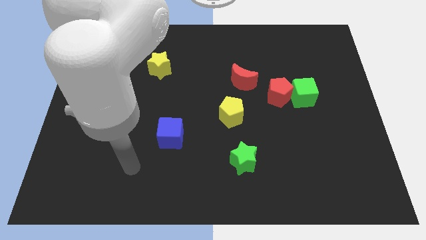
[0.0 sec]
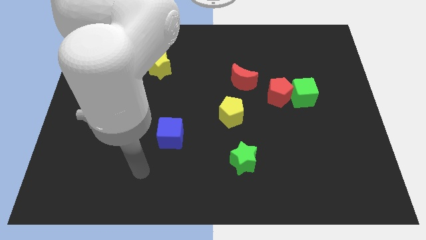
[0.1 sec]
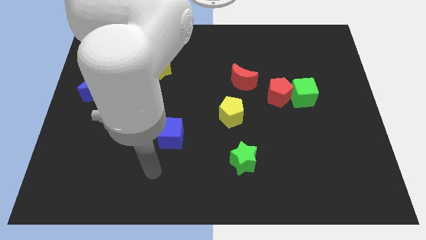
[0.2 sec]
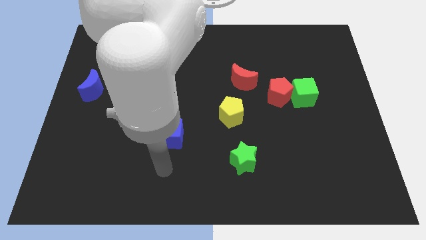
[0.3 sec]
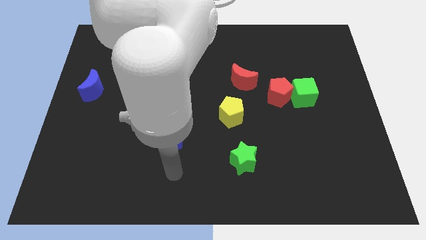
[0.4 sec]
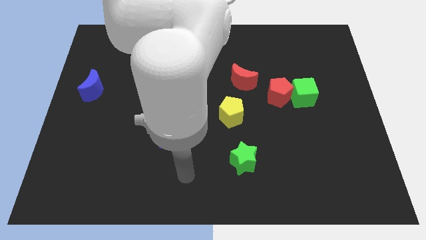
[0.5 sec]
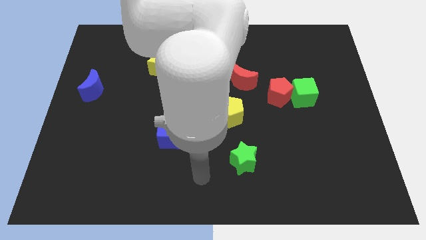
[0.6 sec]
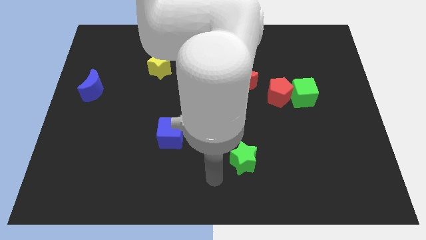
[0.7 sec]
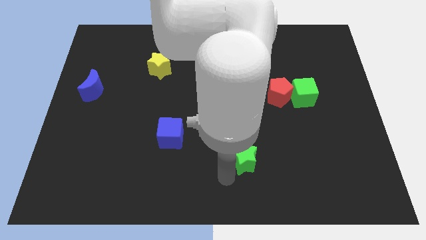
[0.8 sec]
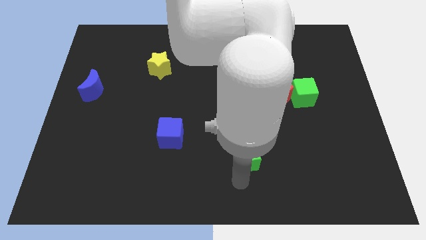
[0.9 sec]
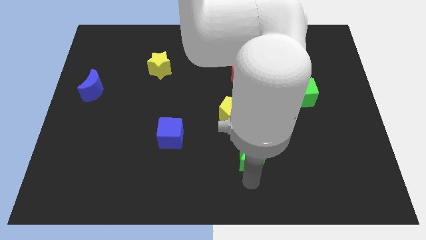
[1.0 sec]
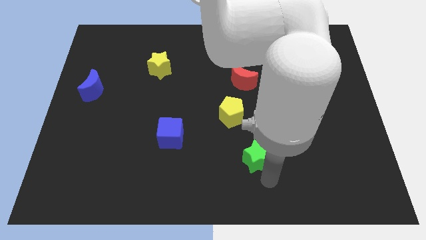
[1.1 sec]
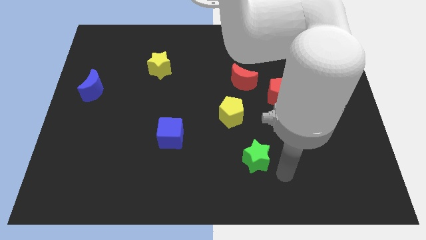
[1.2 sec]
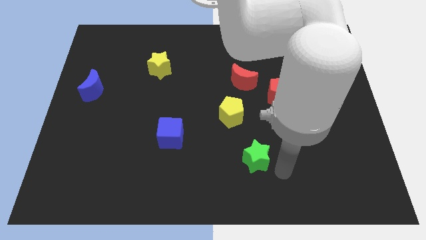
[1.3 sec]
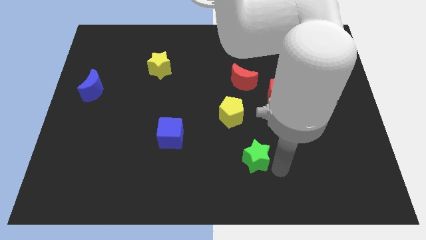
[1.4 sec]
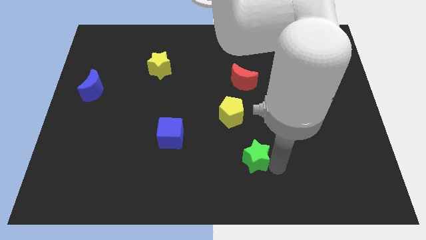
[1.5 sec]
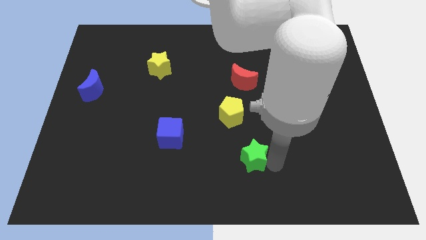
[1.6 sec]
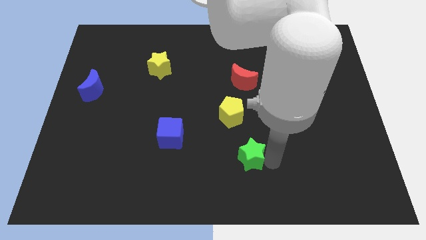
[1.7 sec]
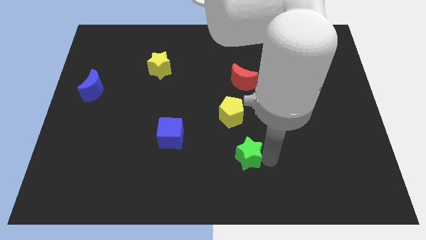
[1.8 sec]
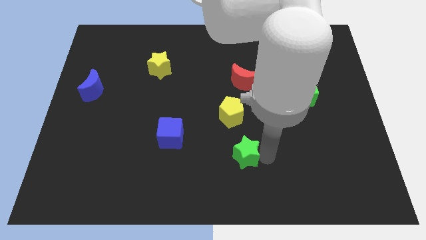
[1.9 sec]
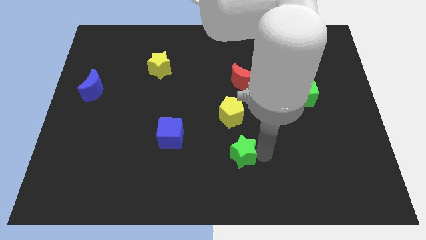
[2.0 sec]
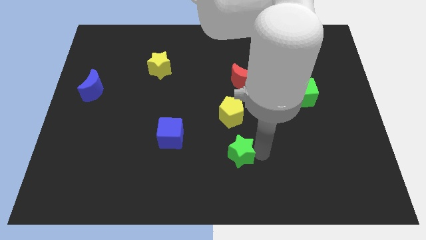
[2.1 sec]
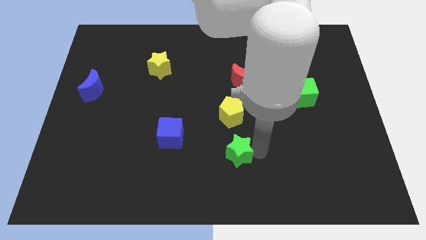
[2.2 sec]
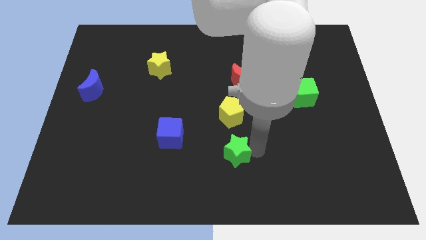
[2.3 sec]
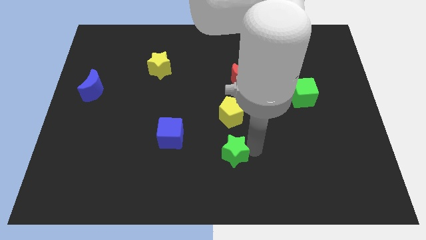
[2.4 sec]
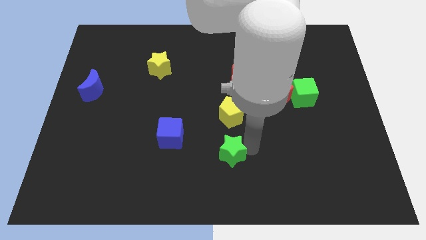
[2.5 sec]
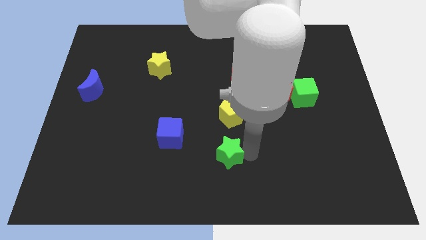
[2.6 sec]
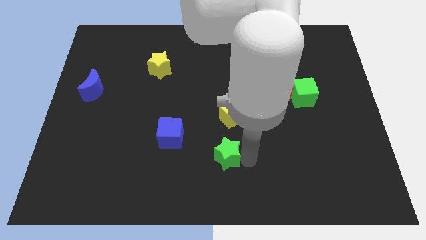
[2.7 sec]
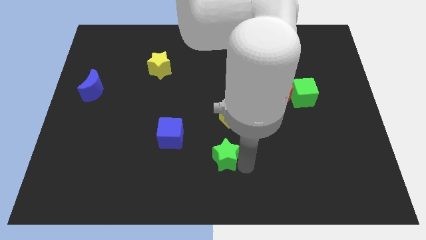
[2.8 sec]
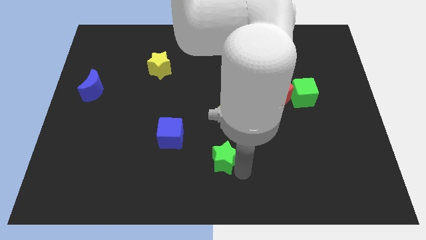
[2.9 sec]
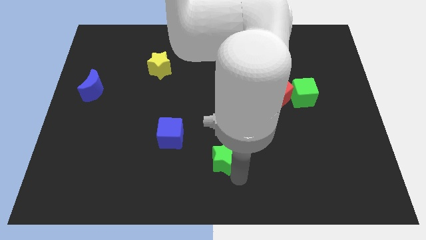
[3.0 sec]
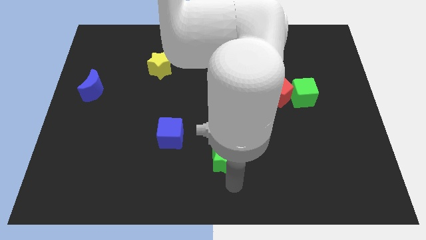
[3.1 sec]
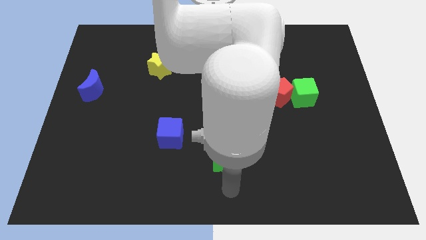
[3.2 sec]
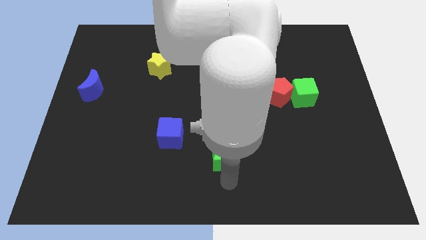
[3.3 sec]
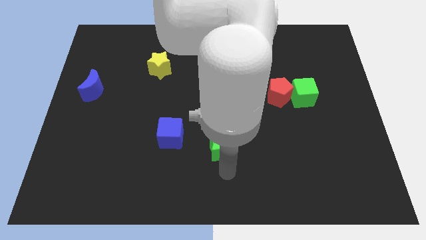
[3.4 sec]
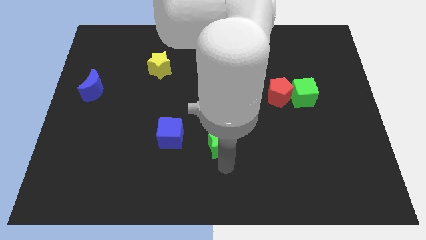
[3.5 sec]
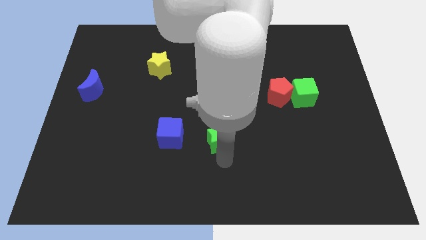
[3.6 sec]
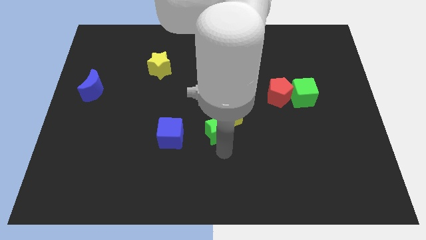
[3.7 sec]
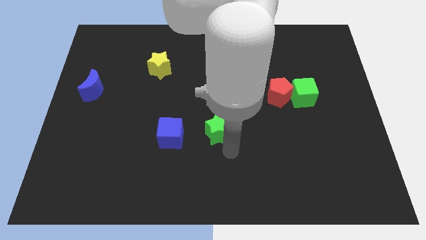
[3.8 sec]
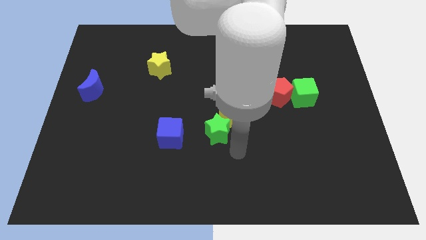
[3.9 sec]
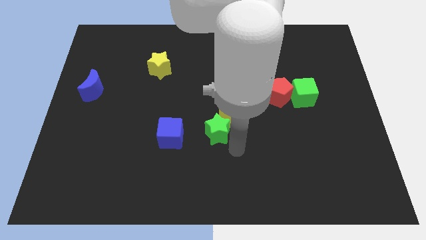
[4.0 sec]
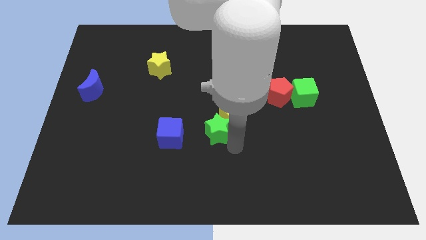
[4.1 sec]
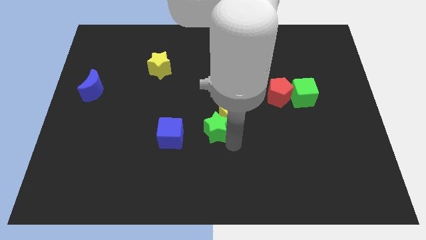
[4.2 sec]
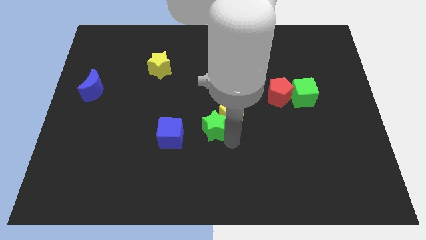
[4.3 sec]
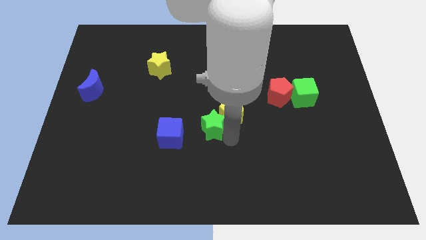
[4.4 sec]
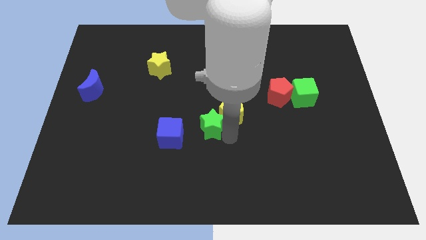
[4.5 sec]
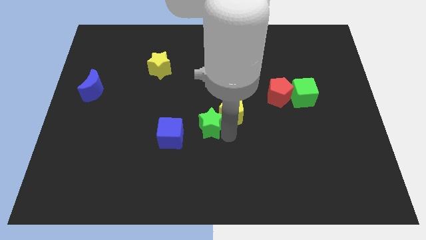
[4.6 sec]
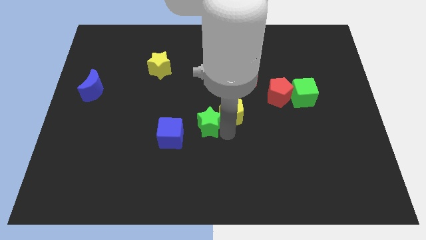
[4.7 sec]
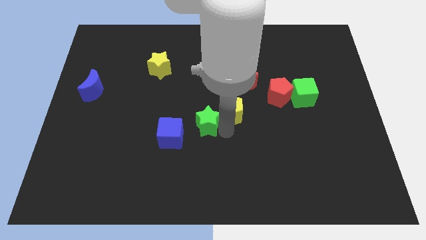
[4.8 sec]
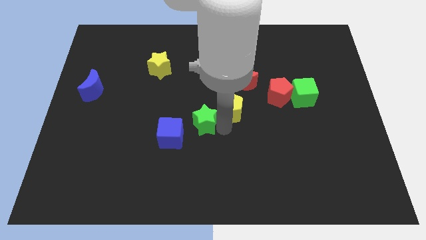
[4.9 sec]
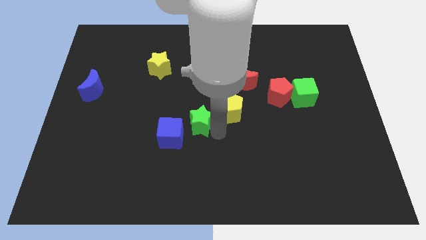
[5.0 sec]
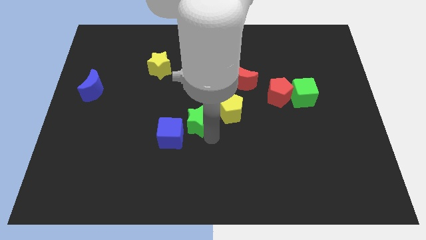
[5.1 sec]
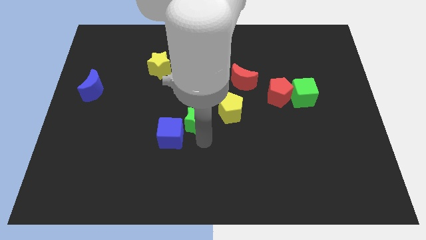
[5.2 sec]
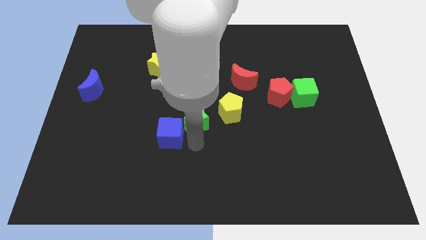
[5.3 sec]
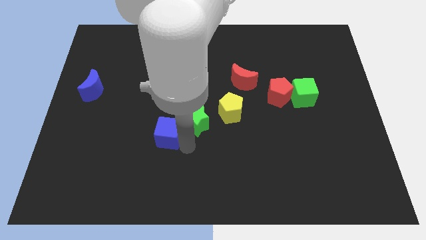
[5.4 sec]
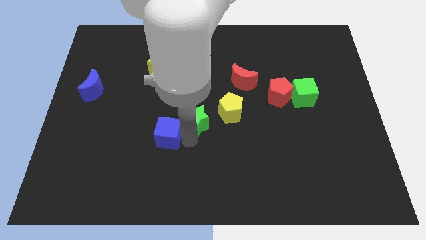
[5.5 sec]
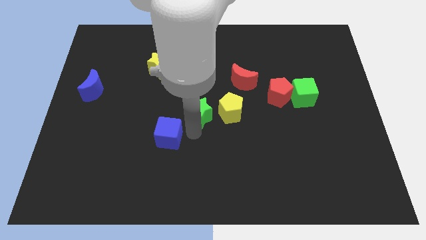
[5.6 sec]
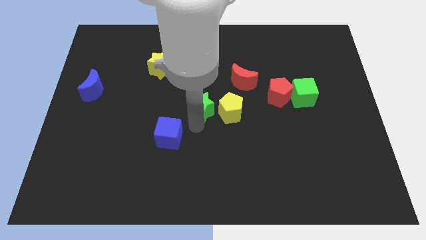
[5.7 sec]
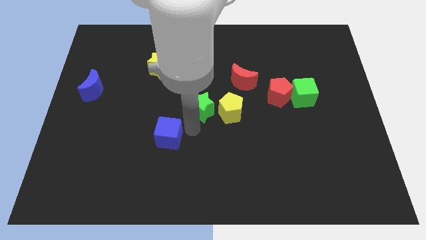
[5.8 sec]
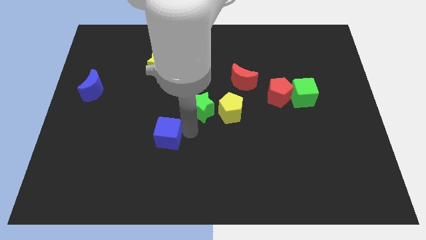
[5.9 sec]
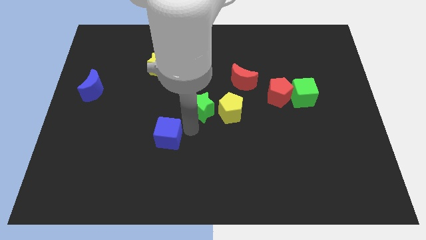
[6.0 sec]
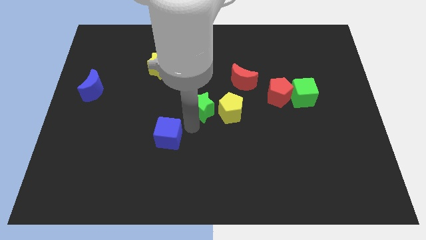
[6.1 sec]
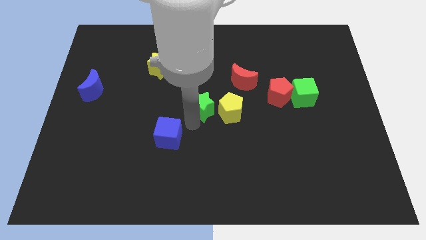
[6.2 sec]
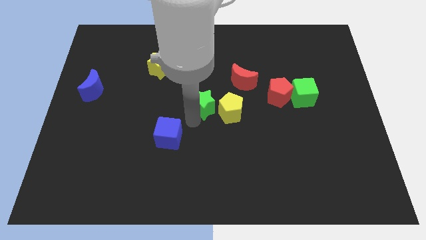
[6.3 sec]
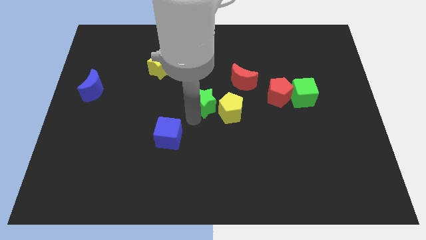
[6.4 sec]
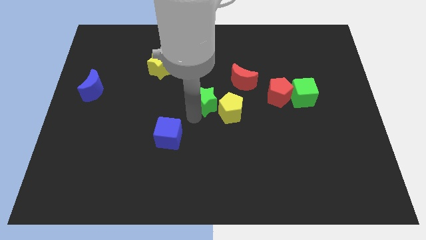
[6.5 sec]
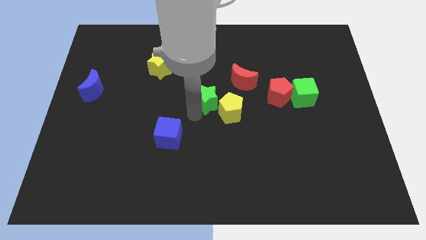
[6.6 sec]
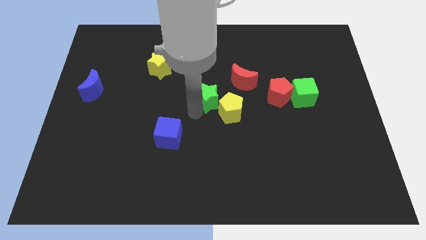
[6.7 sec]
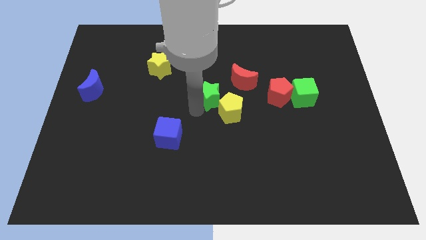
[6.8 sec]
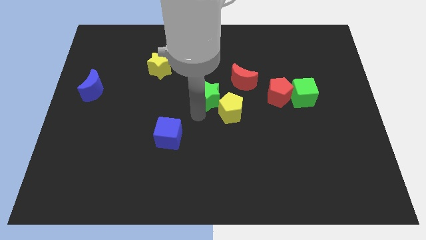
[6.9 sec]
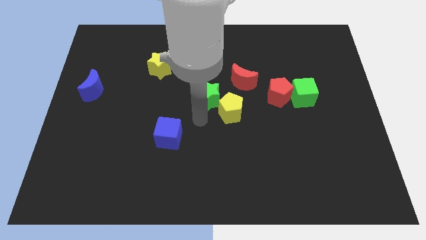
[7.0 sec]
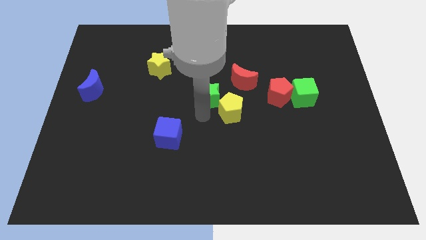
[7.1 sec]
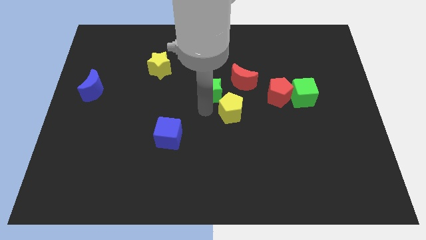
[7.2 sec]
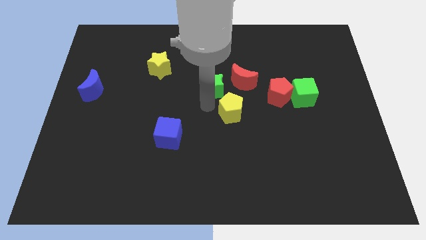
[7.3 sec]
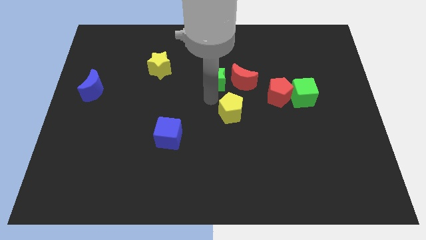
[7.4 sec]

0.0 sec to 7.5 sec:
put the green star diagonally up and to the left of the red moon

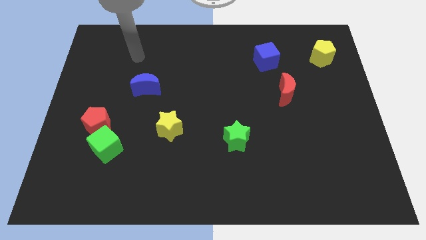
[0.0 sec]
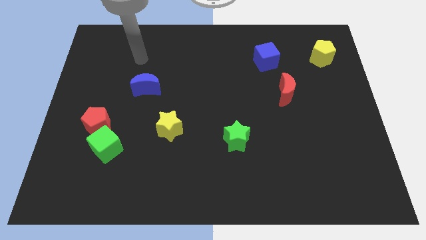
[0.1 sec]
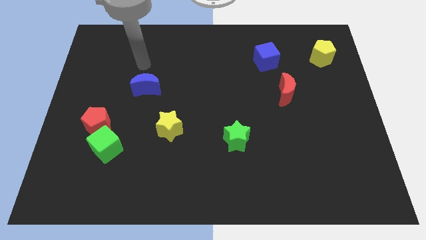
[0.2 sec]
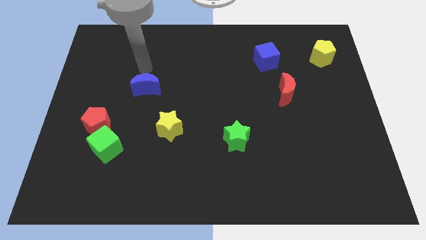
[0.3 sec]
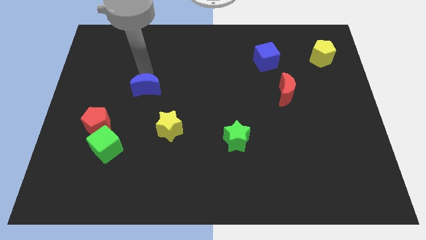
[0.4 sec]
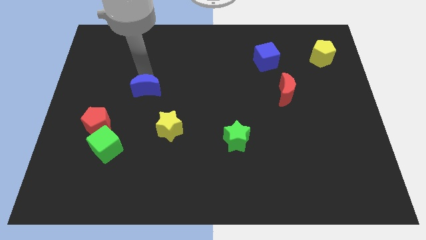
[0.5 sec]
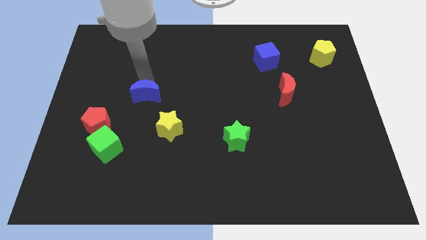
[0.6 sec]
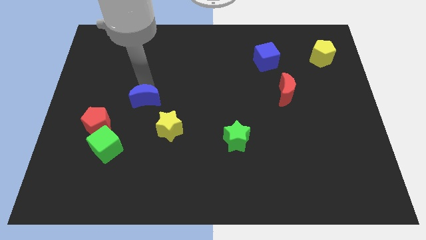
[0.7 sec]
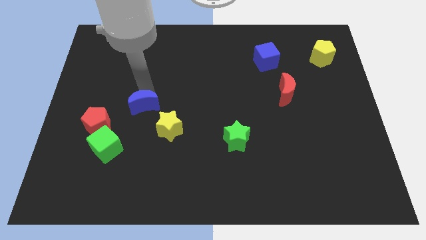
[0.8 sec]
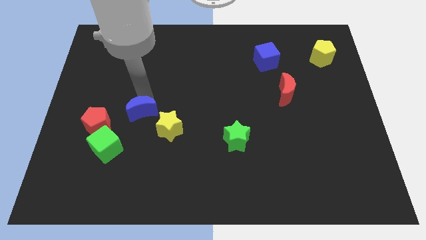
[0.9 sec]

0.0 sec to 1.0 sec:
slide the blue moon to the right side of the red pentagon
